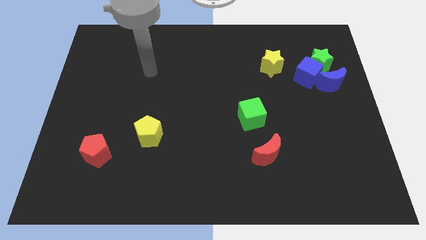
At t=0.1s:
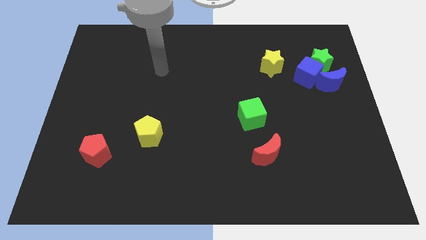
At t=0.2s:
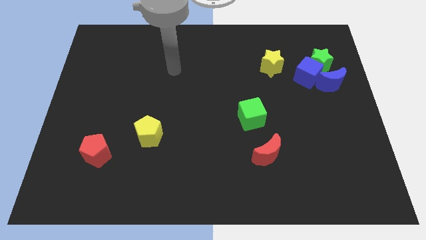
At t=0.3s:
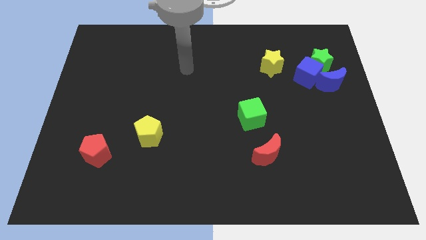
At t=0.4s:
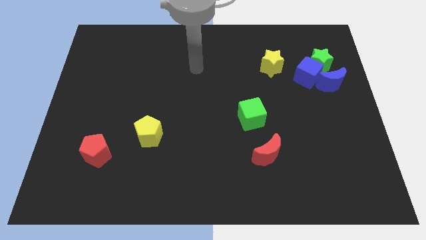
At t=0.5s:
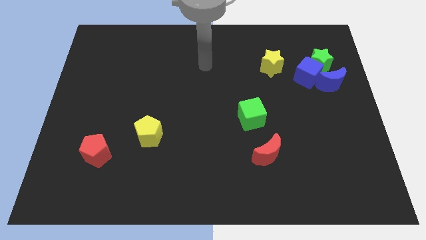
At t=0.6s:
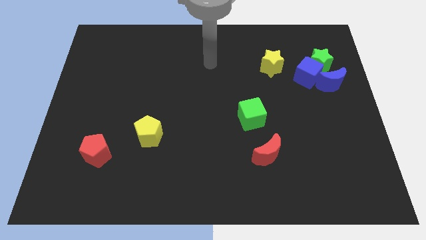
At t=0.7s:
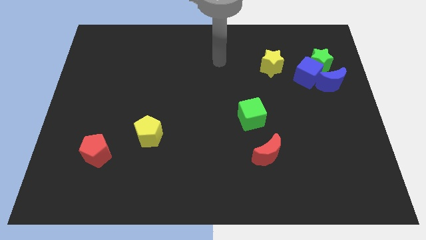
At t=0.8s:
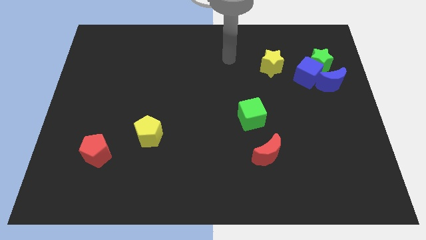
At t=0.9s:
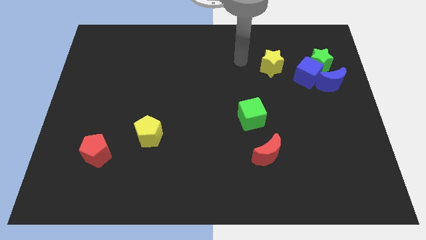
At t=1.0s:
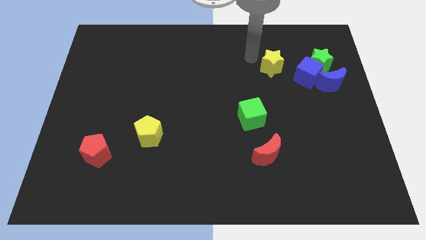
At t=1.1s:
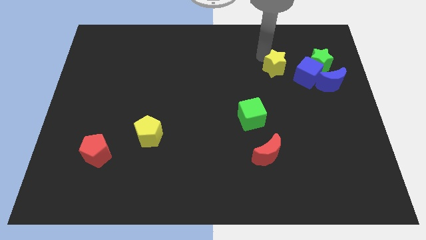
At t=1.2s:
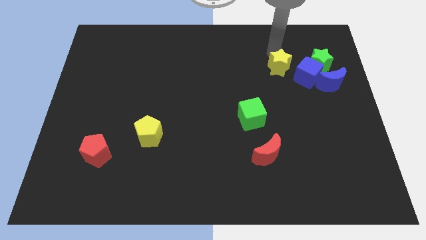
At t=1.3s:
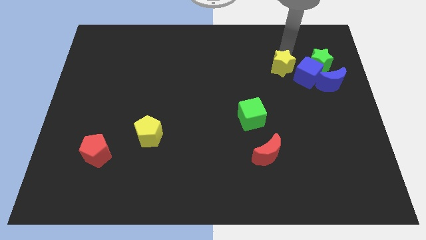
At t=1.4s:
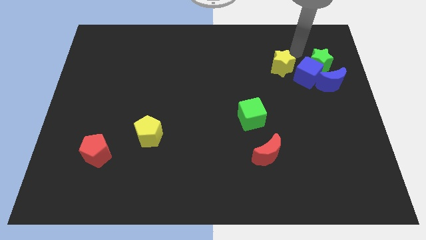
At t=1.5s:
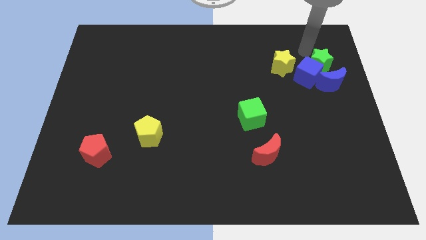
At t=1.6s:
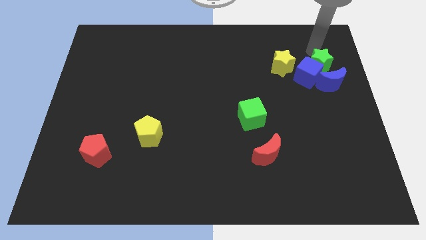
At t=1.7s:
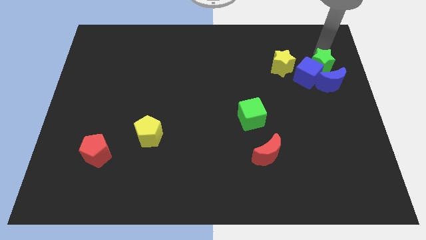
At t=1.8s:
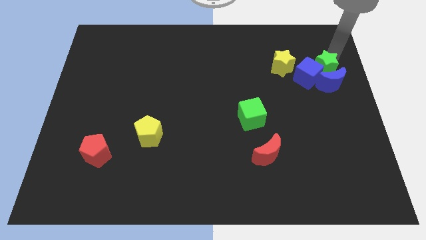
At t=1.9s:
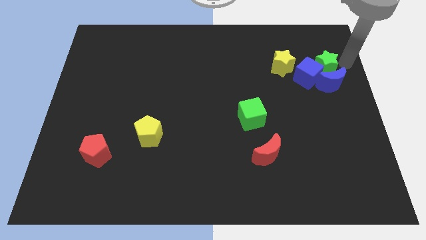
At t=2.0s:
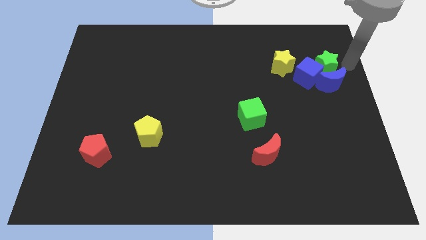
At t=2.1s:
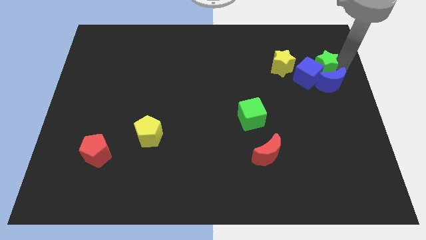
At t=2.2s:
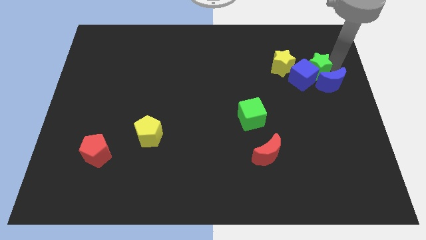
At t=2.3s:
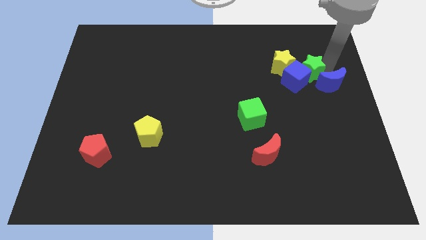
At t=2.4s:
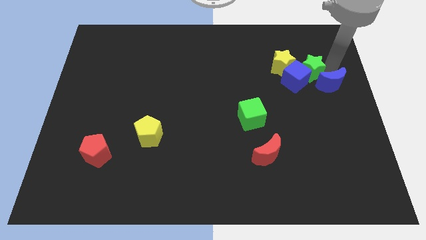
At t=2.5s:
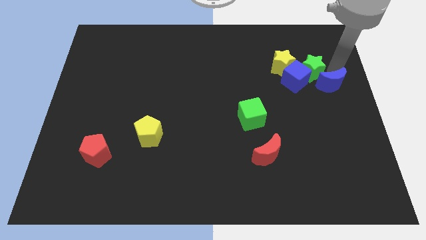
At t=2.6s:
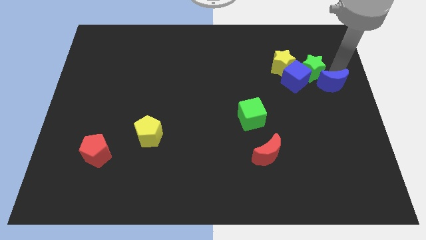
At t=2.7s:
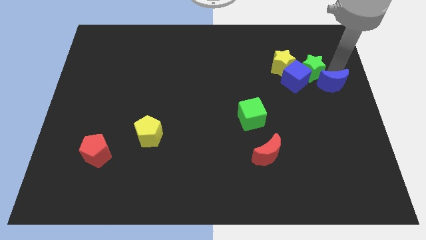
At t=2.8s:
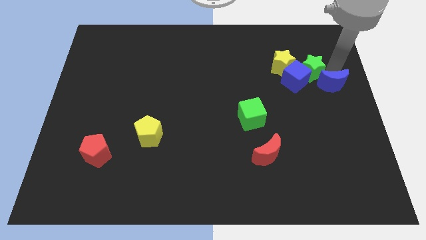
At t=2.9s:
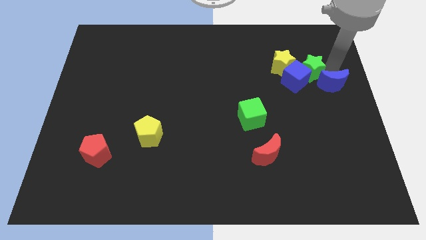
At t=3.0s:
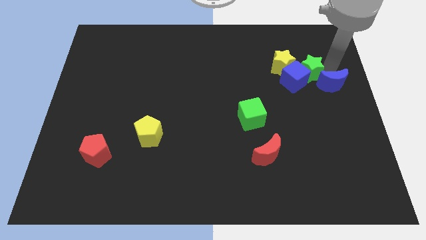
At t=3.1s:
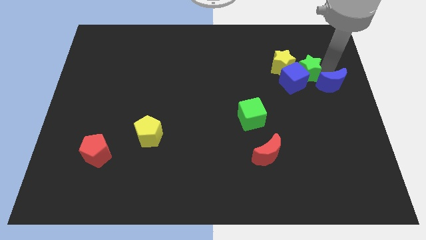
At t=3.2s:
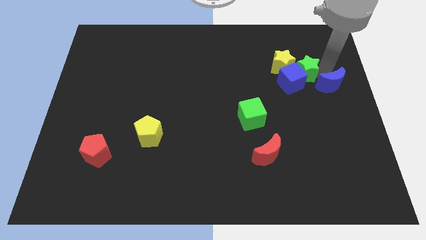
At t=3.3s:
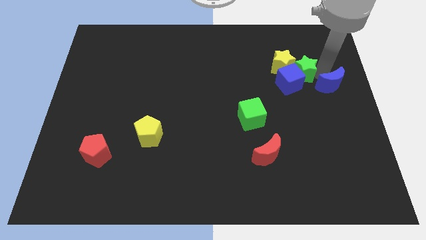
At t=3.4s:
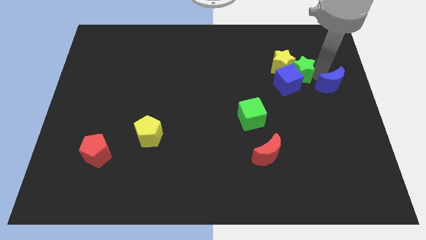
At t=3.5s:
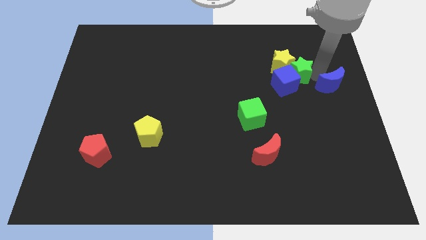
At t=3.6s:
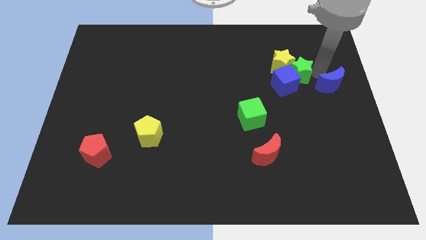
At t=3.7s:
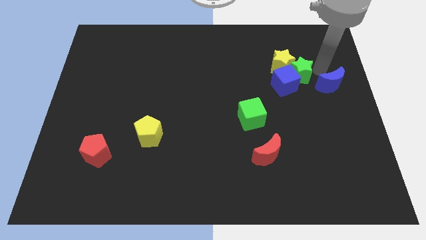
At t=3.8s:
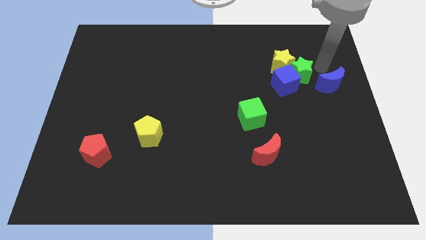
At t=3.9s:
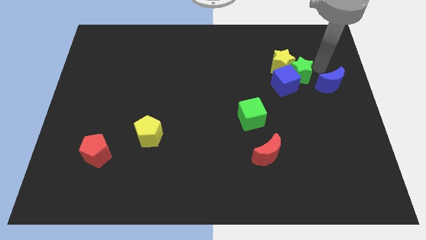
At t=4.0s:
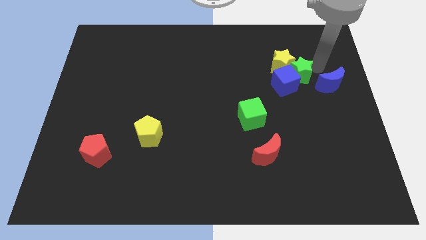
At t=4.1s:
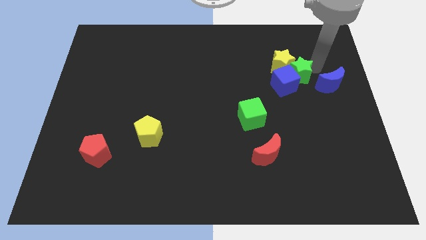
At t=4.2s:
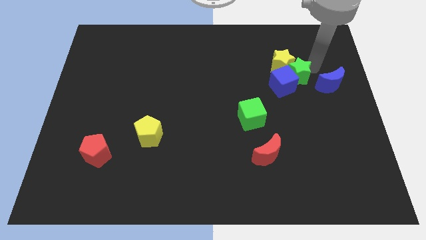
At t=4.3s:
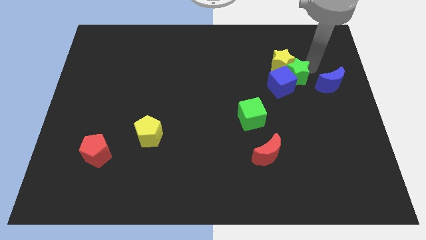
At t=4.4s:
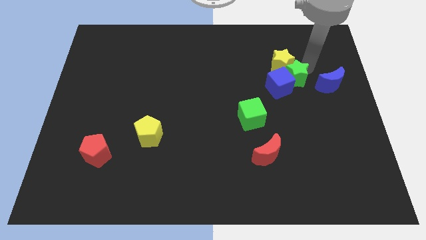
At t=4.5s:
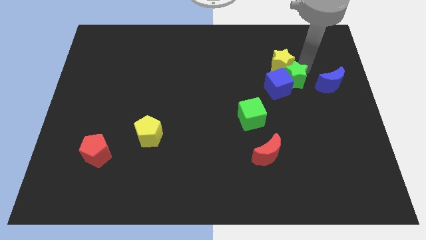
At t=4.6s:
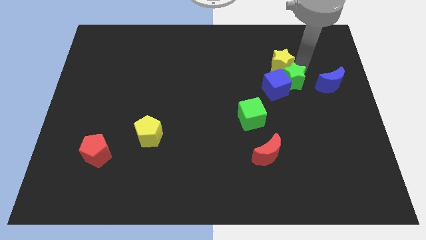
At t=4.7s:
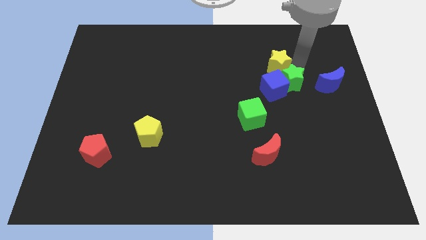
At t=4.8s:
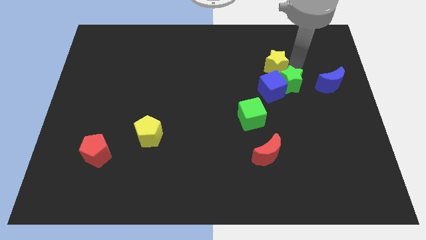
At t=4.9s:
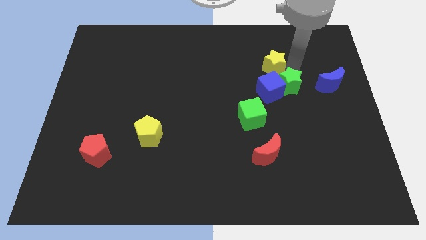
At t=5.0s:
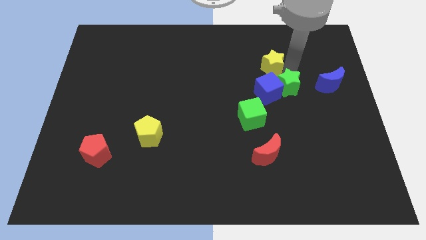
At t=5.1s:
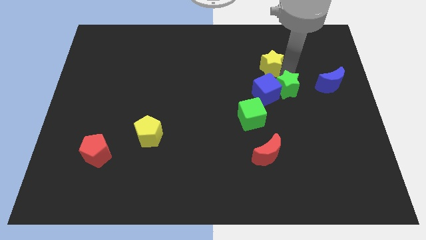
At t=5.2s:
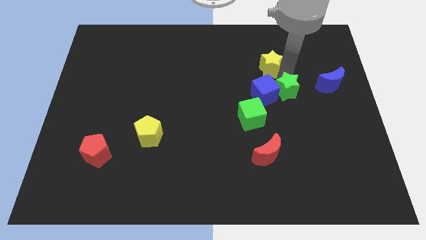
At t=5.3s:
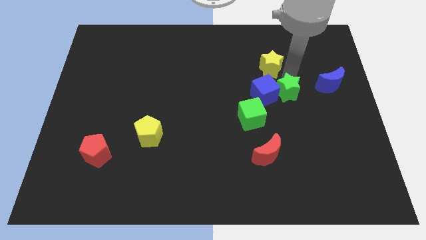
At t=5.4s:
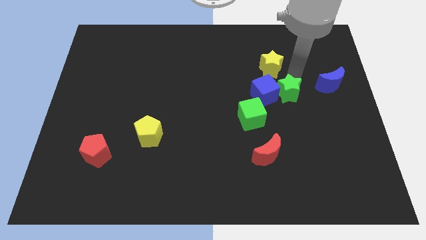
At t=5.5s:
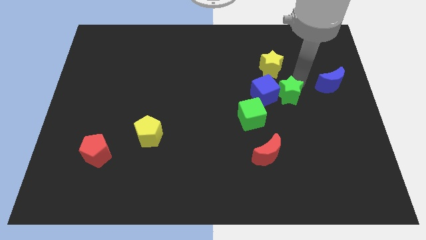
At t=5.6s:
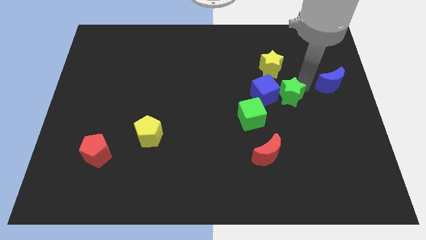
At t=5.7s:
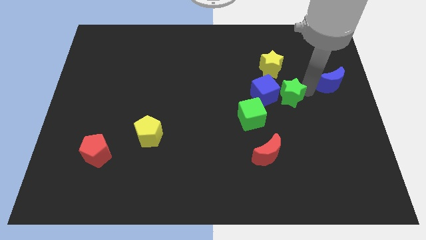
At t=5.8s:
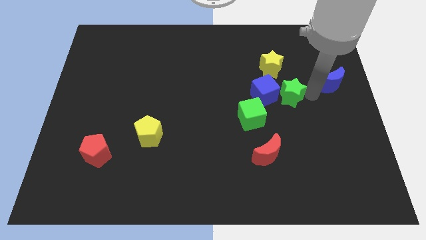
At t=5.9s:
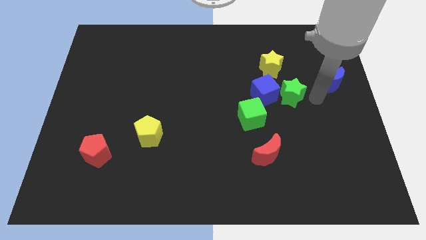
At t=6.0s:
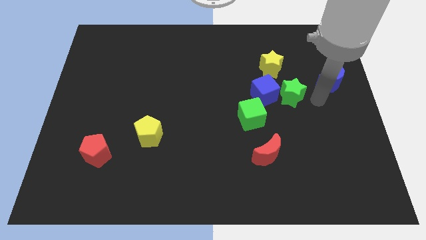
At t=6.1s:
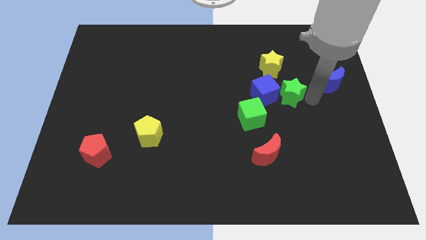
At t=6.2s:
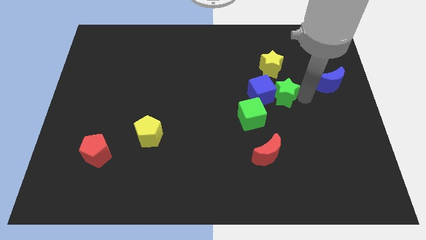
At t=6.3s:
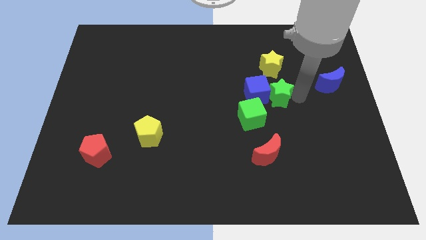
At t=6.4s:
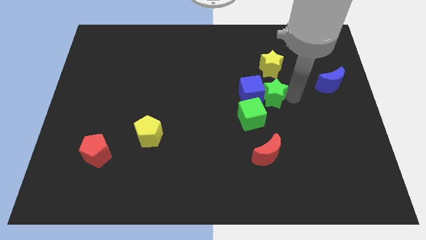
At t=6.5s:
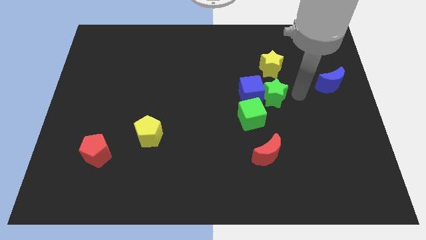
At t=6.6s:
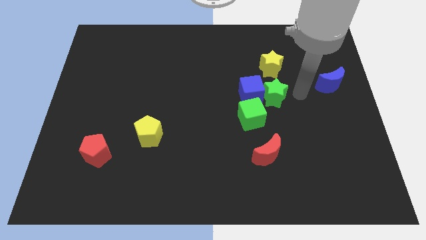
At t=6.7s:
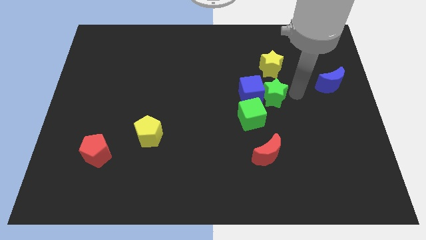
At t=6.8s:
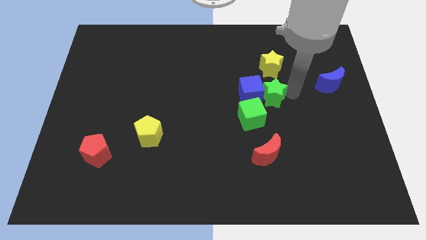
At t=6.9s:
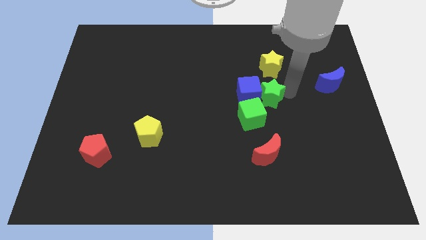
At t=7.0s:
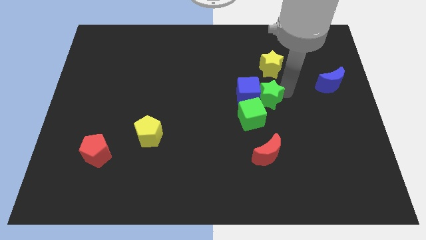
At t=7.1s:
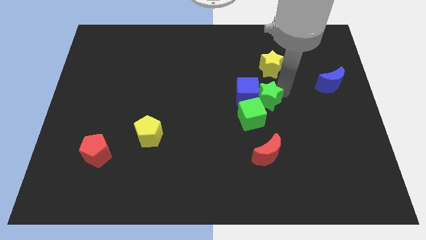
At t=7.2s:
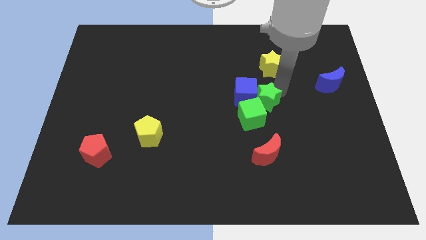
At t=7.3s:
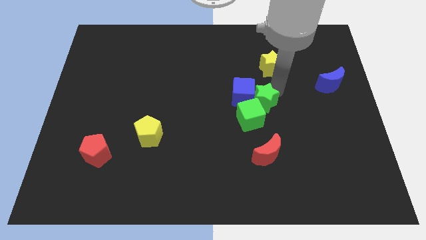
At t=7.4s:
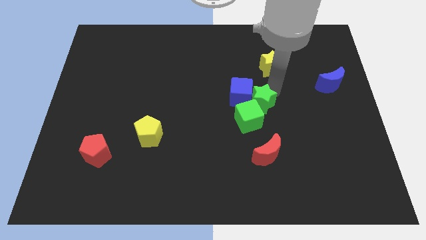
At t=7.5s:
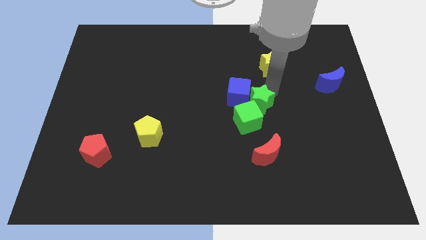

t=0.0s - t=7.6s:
slide the green star diagonally downwards and to the left

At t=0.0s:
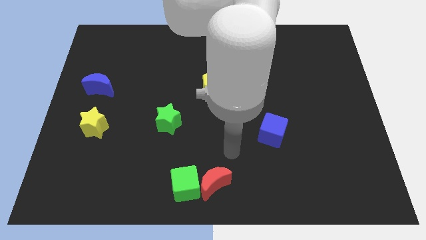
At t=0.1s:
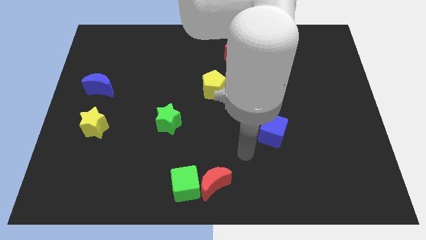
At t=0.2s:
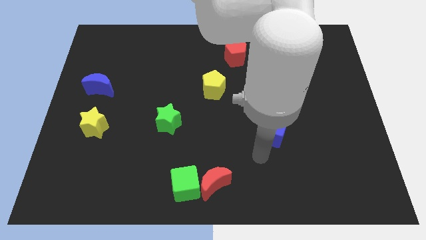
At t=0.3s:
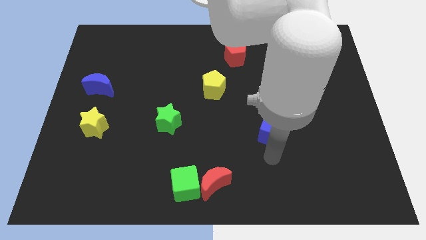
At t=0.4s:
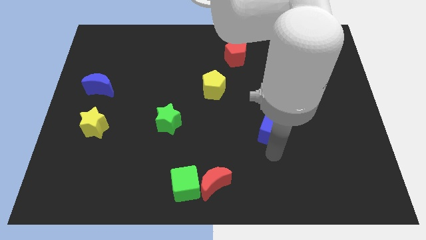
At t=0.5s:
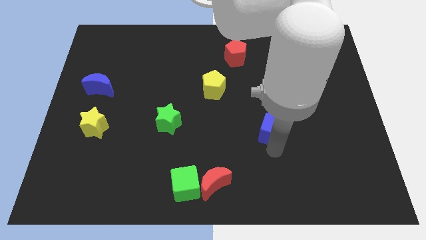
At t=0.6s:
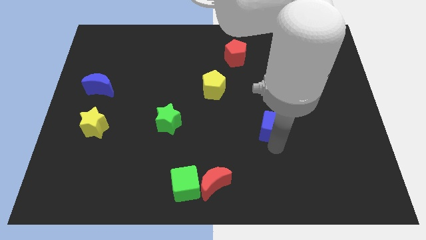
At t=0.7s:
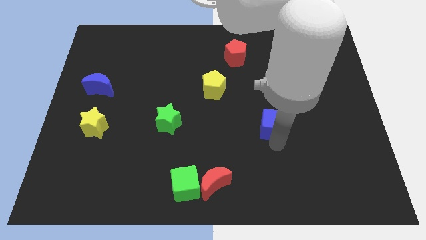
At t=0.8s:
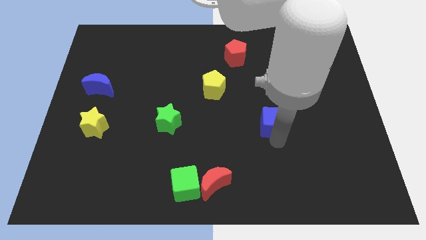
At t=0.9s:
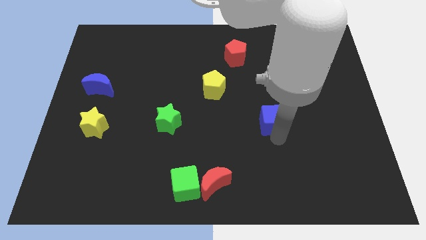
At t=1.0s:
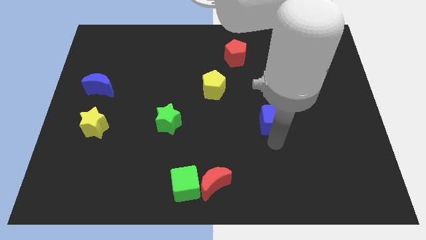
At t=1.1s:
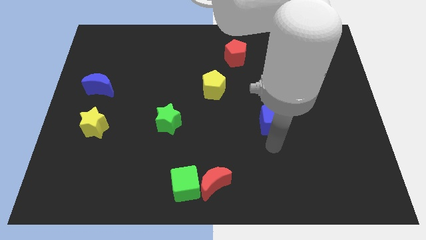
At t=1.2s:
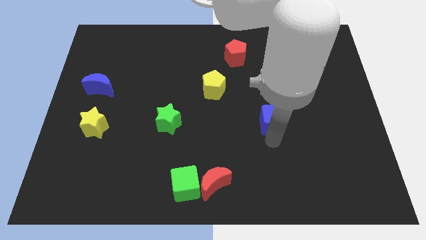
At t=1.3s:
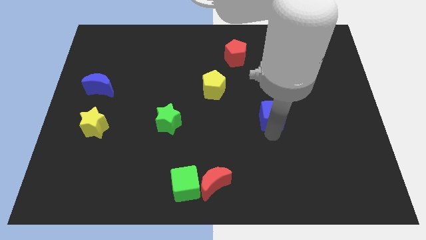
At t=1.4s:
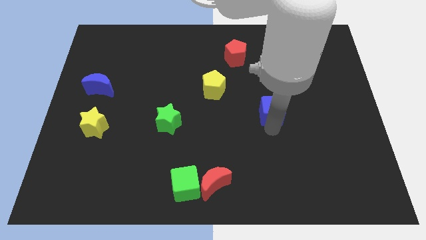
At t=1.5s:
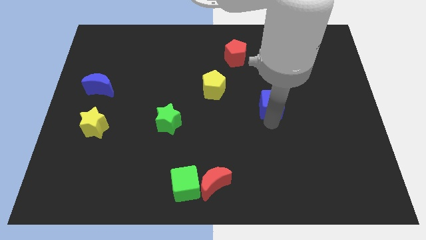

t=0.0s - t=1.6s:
push the blue cube somewhat up
